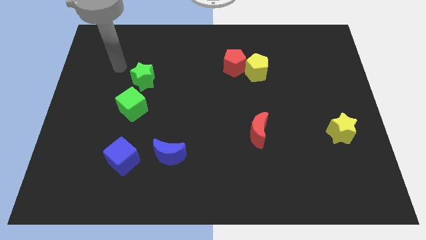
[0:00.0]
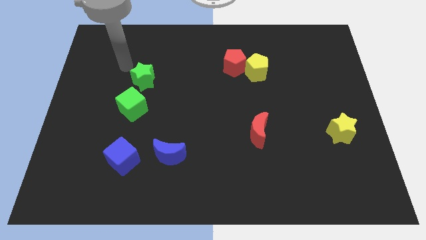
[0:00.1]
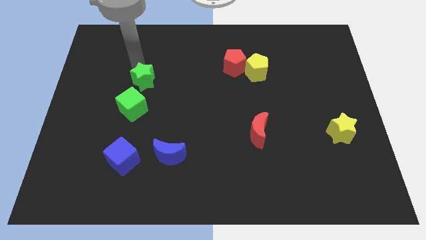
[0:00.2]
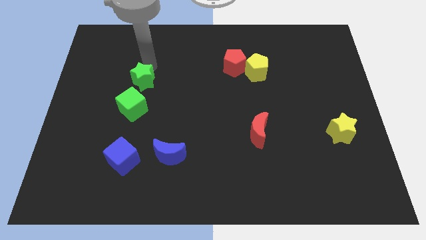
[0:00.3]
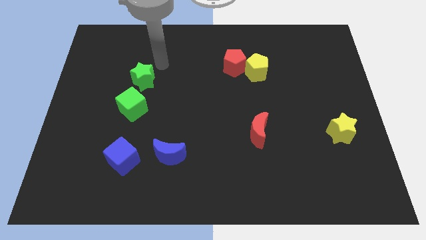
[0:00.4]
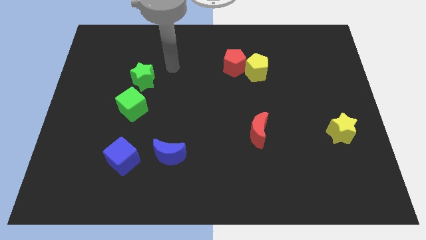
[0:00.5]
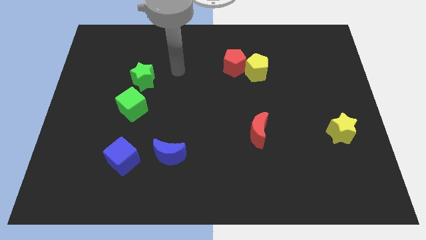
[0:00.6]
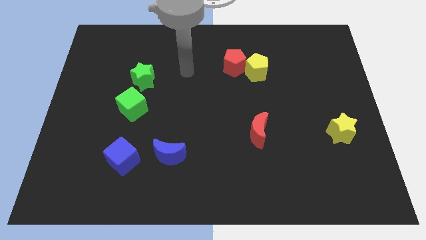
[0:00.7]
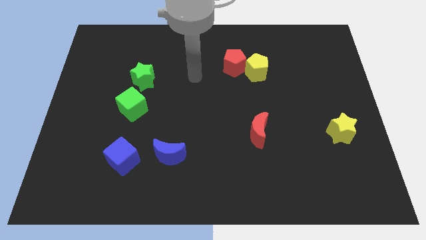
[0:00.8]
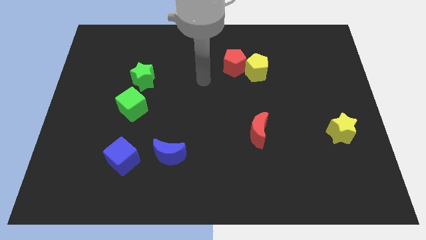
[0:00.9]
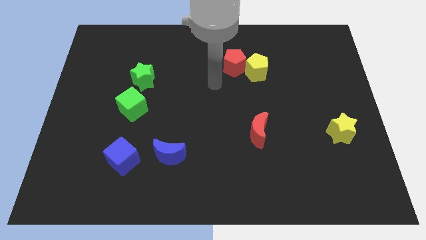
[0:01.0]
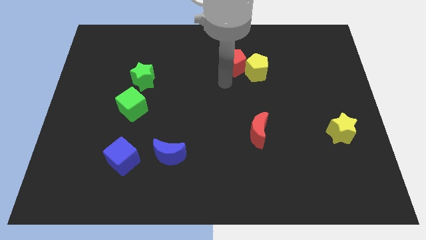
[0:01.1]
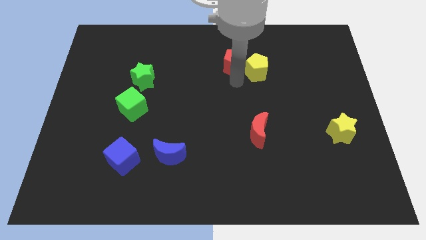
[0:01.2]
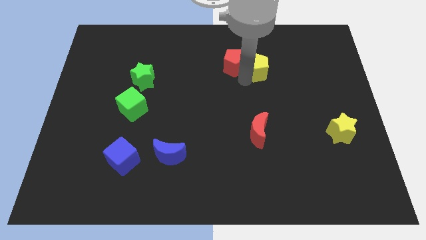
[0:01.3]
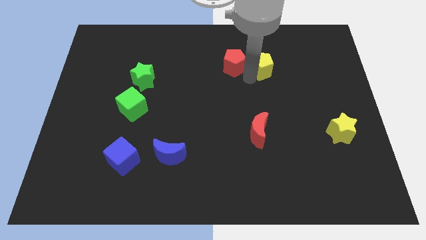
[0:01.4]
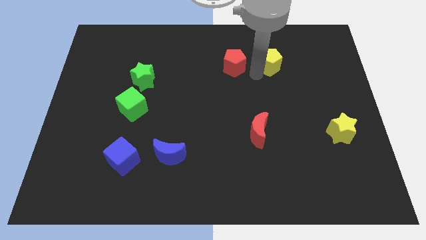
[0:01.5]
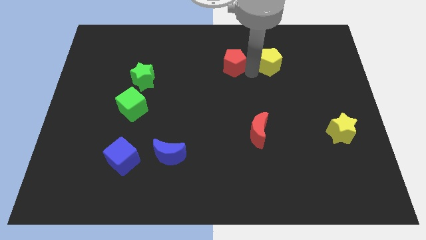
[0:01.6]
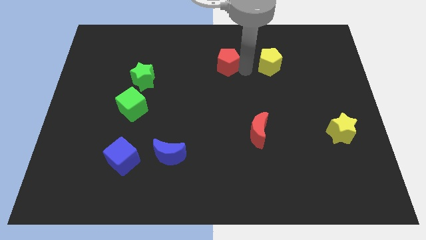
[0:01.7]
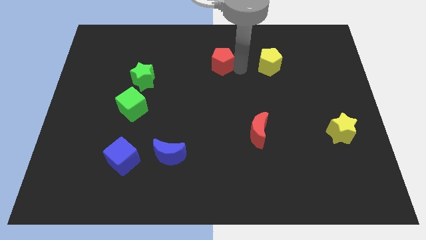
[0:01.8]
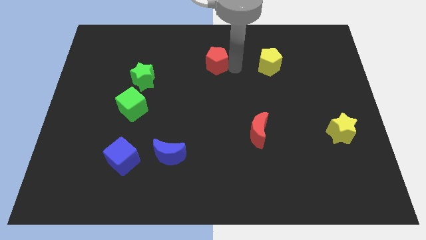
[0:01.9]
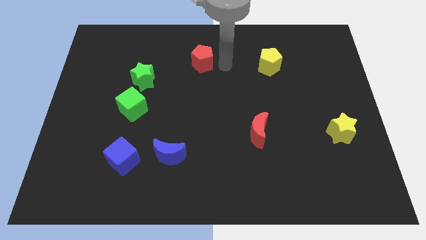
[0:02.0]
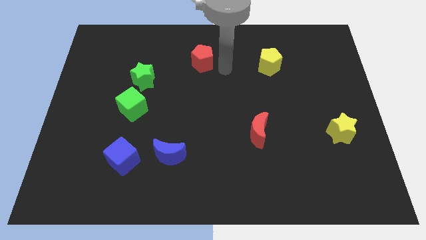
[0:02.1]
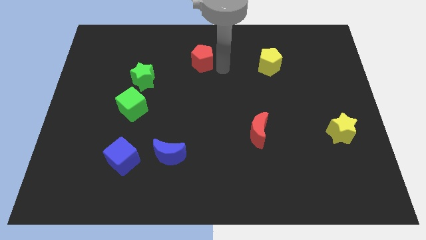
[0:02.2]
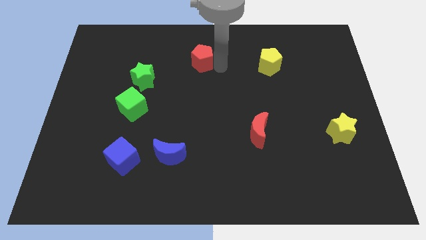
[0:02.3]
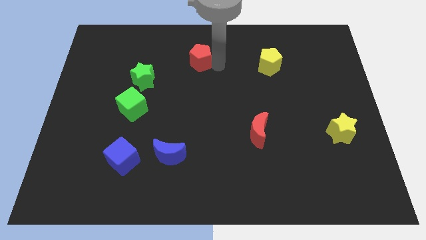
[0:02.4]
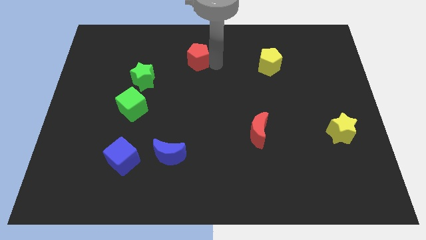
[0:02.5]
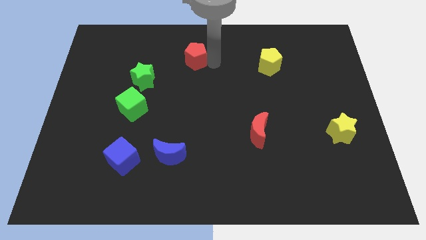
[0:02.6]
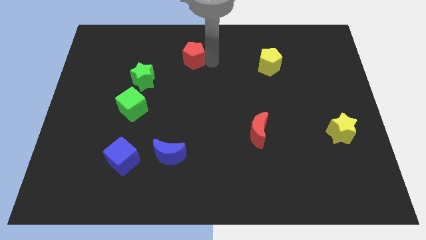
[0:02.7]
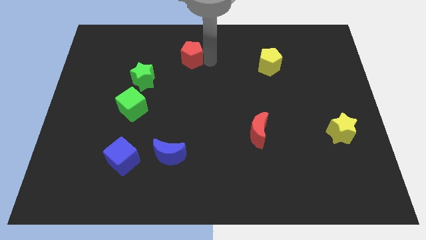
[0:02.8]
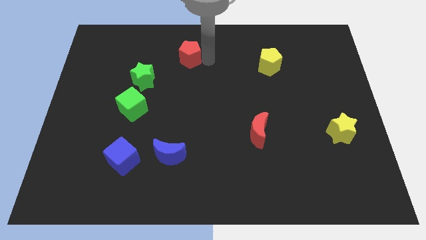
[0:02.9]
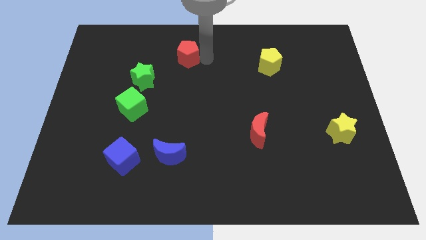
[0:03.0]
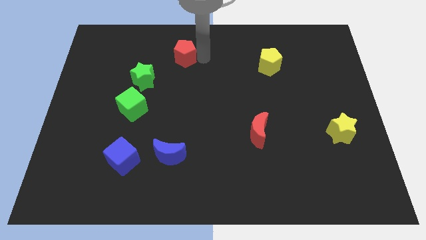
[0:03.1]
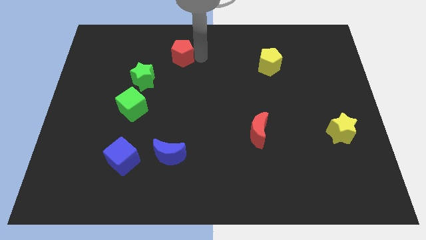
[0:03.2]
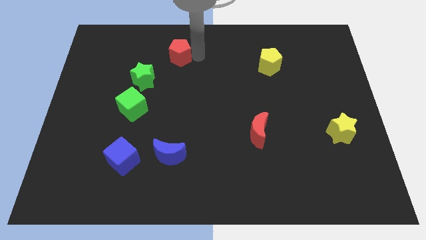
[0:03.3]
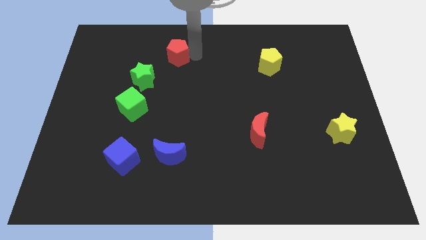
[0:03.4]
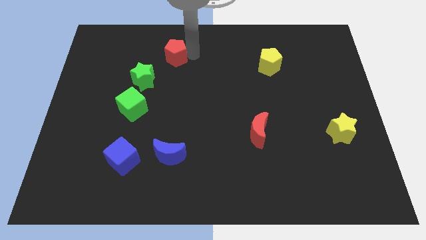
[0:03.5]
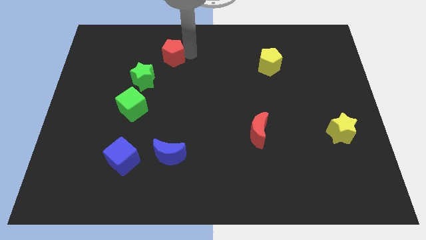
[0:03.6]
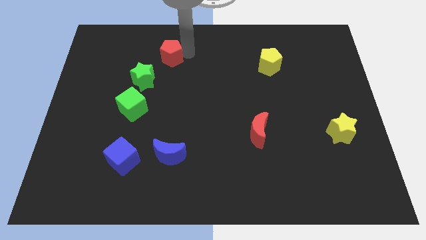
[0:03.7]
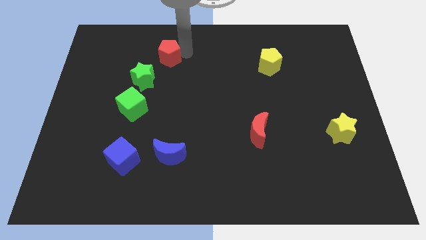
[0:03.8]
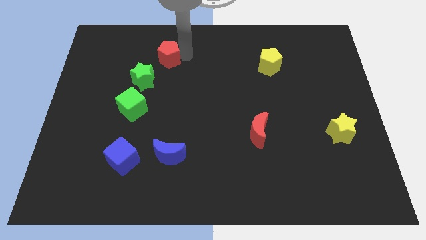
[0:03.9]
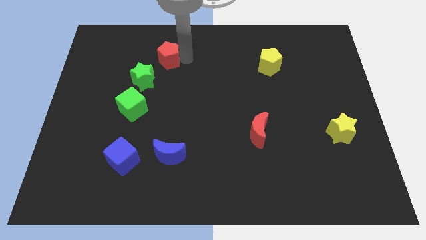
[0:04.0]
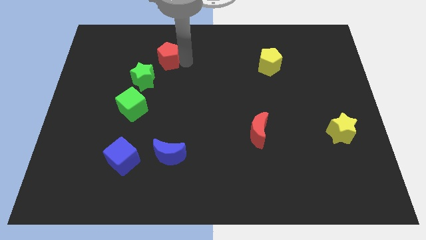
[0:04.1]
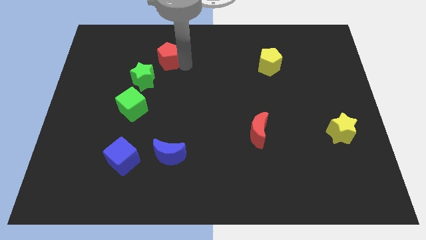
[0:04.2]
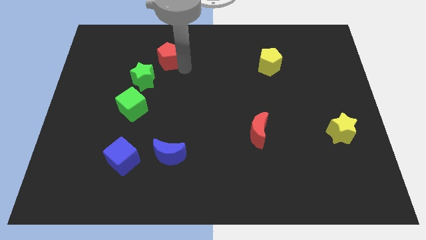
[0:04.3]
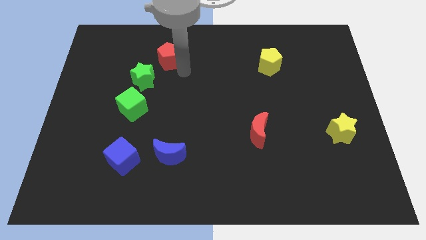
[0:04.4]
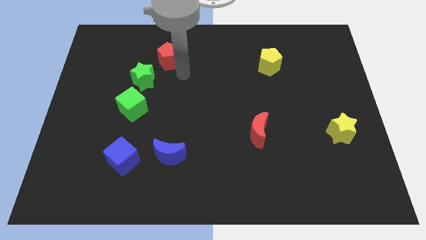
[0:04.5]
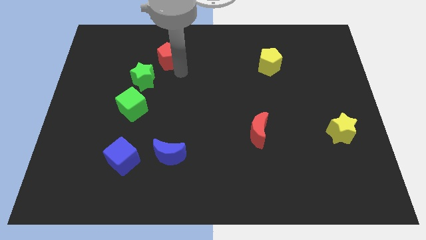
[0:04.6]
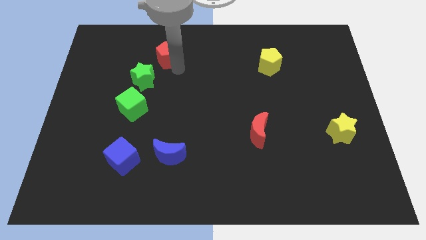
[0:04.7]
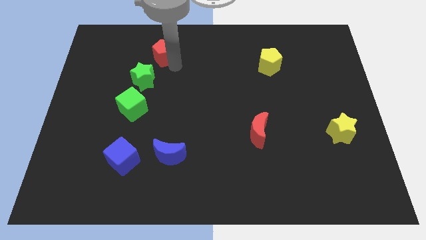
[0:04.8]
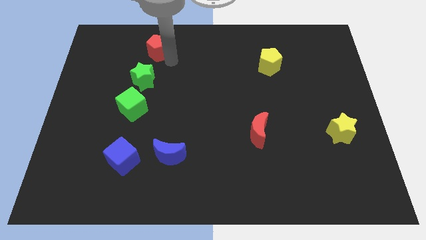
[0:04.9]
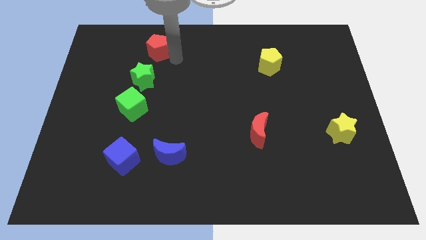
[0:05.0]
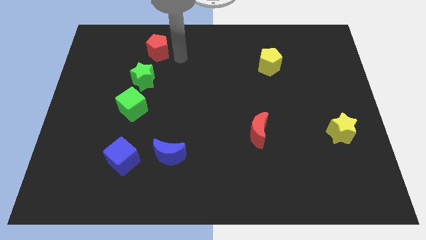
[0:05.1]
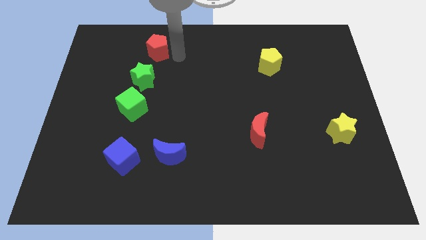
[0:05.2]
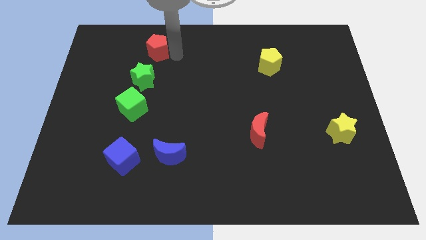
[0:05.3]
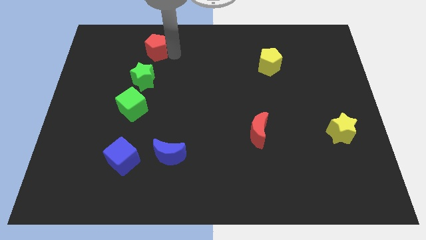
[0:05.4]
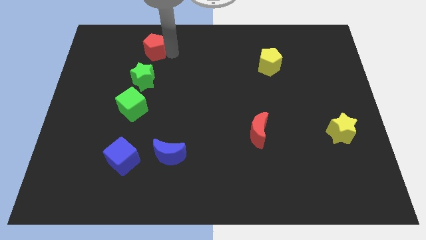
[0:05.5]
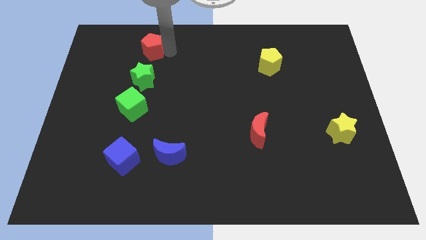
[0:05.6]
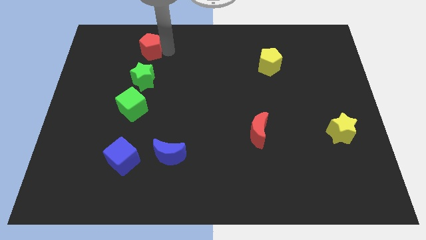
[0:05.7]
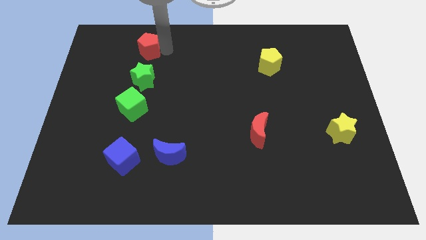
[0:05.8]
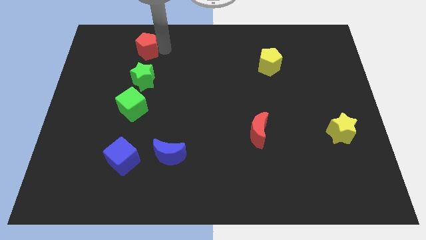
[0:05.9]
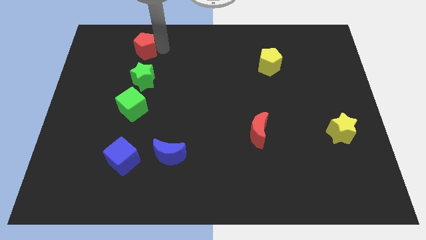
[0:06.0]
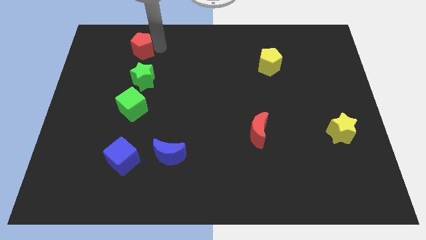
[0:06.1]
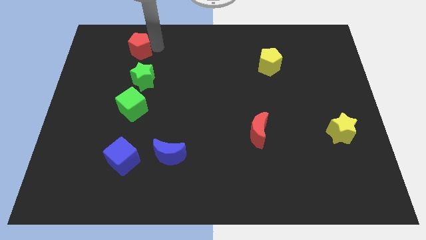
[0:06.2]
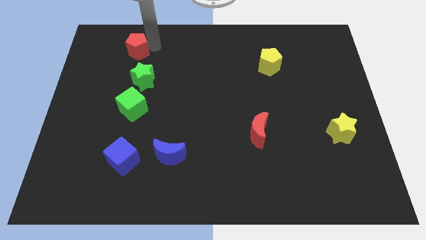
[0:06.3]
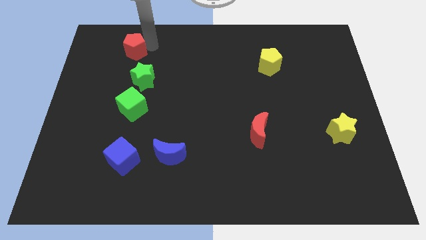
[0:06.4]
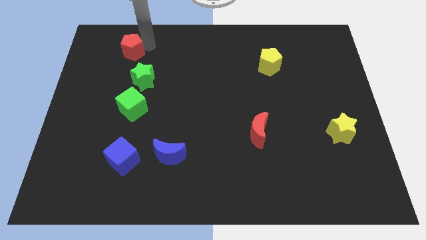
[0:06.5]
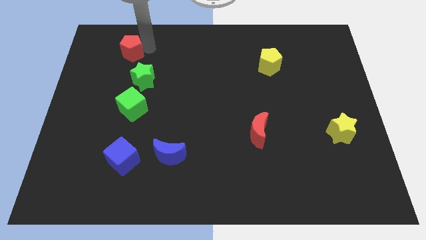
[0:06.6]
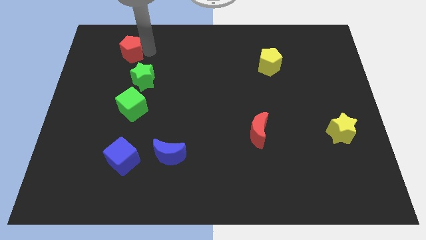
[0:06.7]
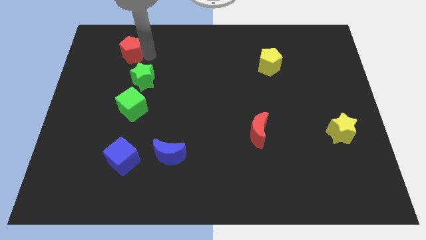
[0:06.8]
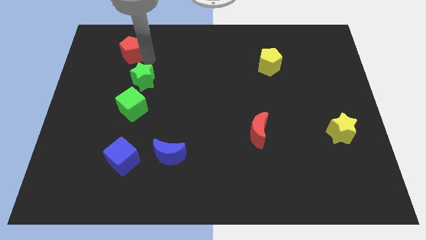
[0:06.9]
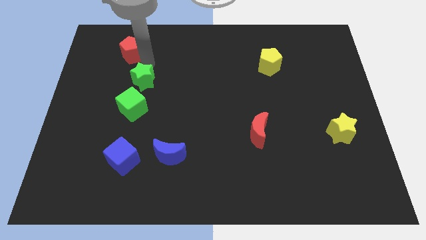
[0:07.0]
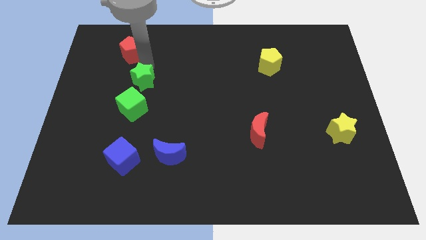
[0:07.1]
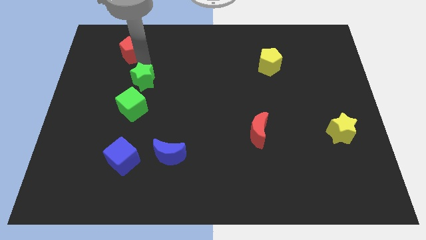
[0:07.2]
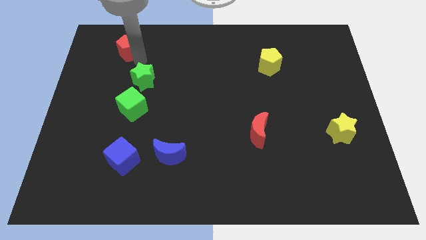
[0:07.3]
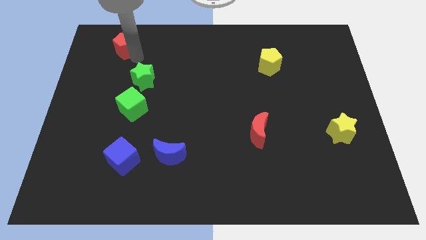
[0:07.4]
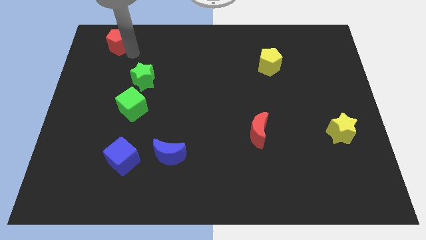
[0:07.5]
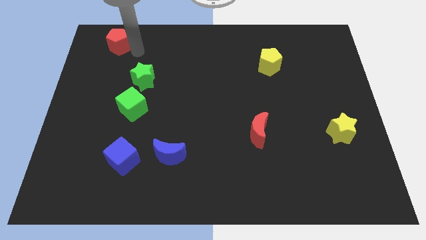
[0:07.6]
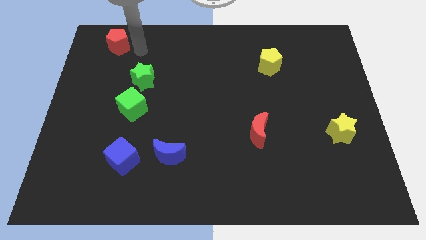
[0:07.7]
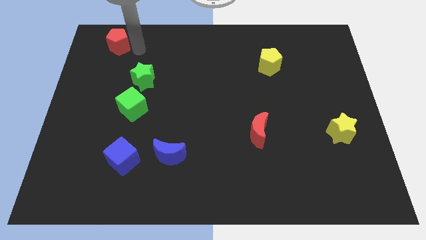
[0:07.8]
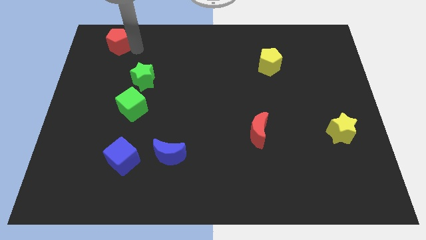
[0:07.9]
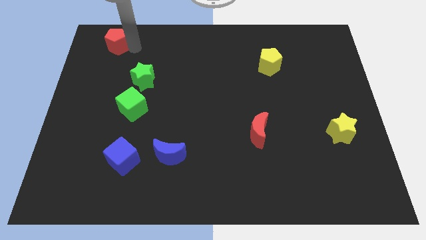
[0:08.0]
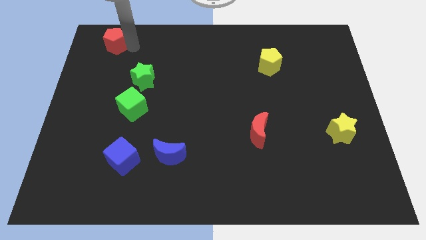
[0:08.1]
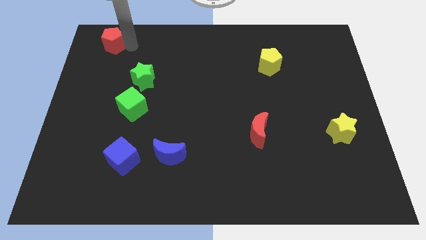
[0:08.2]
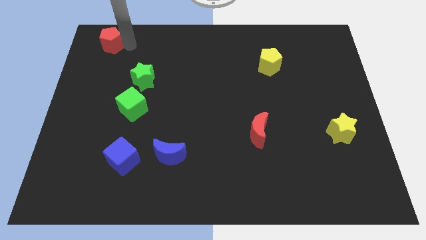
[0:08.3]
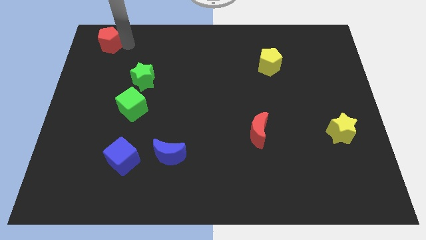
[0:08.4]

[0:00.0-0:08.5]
put the red pentagon to the top left of the board
